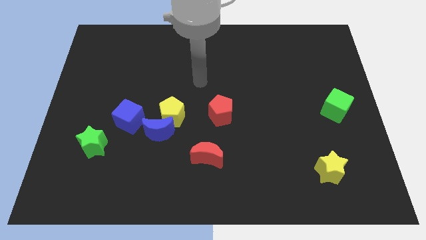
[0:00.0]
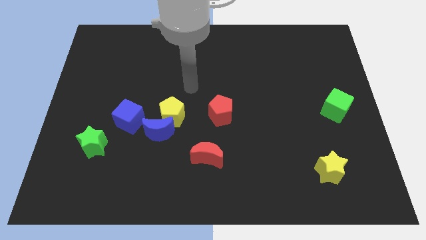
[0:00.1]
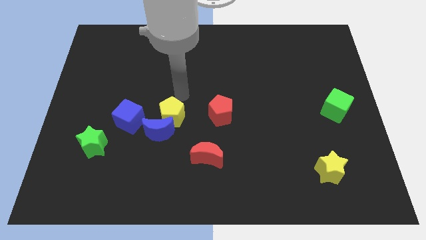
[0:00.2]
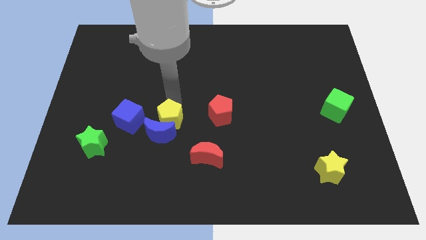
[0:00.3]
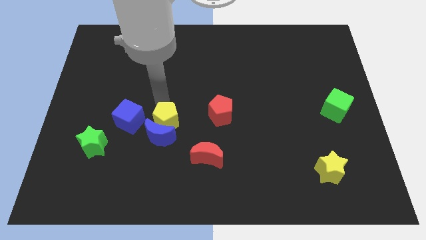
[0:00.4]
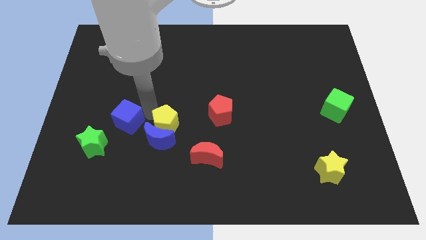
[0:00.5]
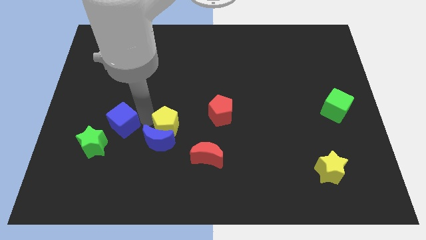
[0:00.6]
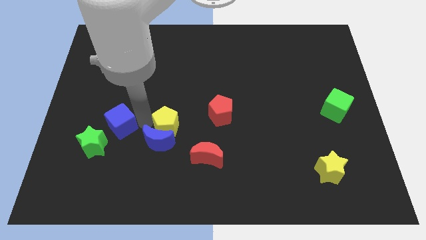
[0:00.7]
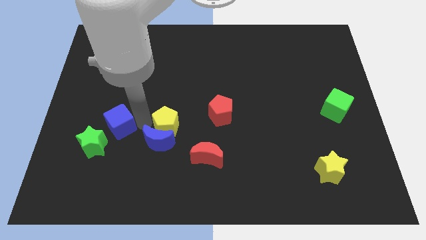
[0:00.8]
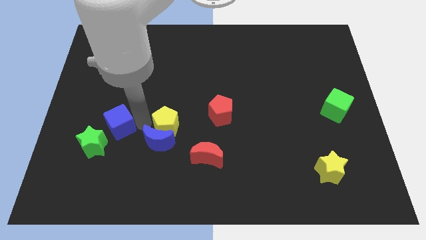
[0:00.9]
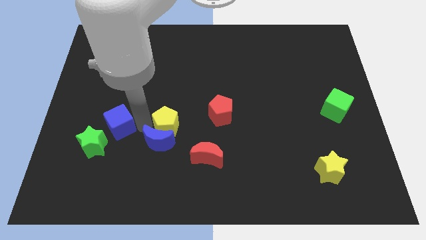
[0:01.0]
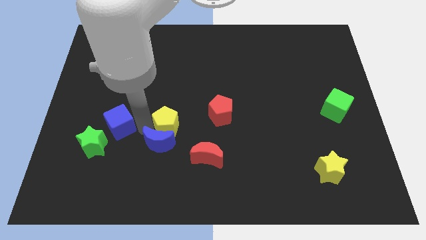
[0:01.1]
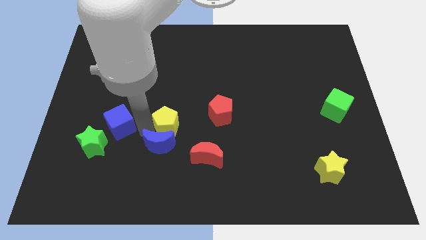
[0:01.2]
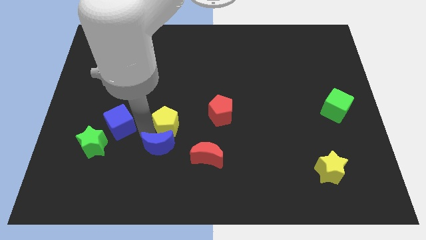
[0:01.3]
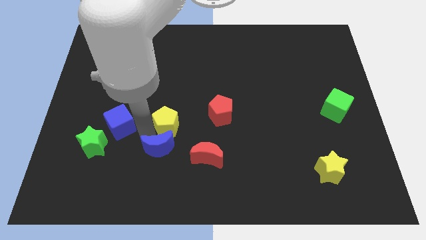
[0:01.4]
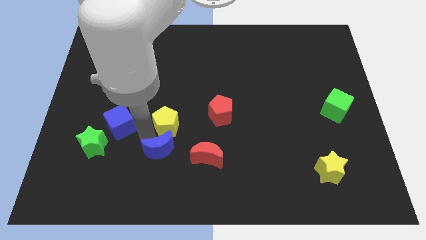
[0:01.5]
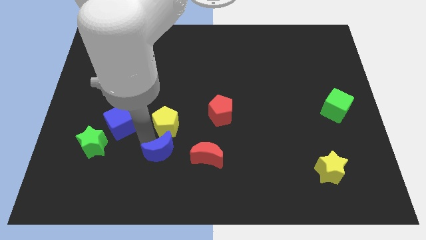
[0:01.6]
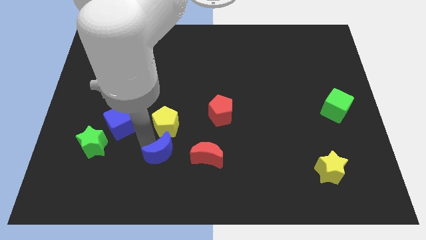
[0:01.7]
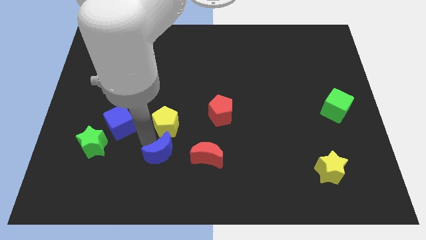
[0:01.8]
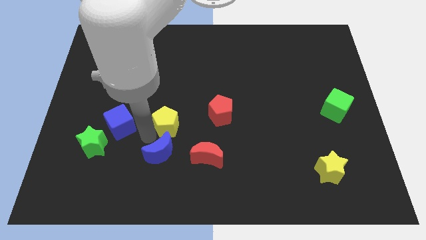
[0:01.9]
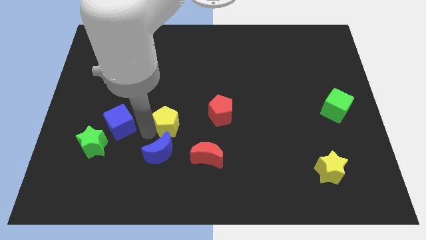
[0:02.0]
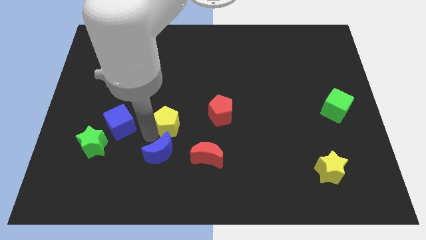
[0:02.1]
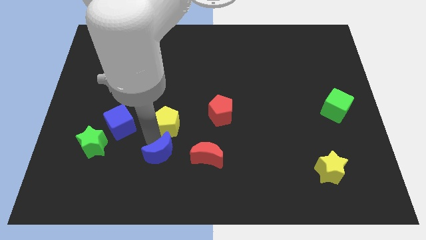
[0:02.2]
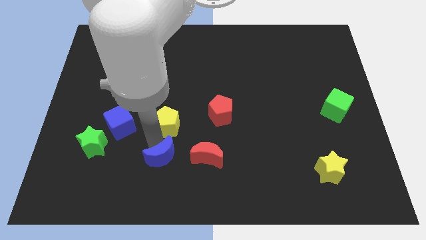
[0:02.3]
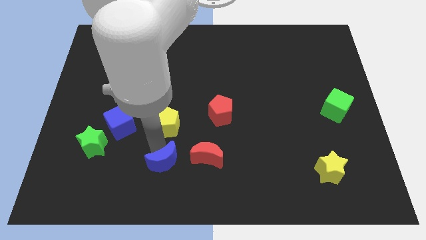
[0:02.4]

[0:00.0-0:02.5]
move the blue moon away from the yellow pentagon and blue cube

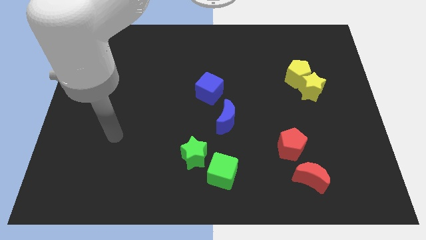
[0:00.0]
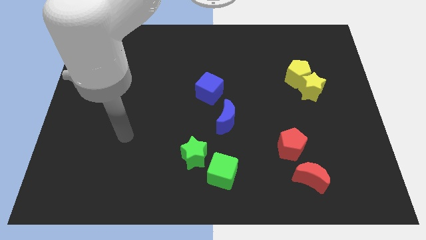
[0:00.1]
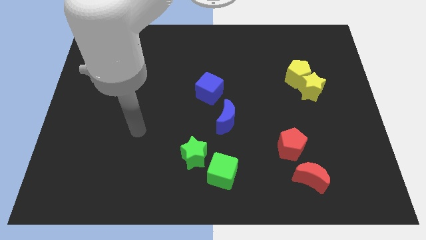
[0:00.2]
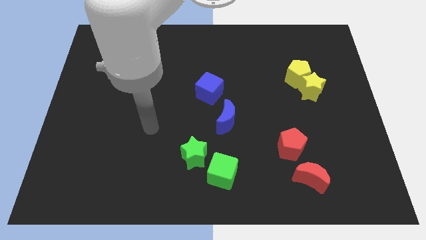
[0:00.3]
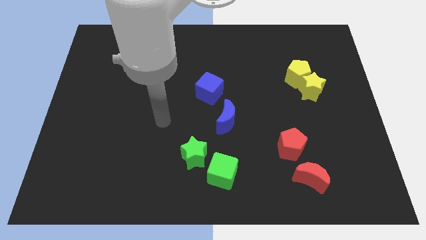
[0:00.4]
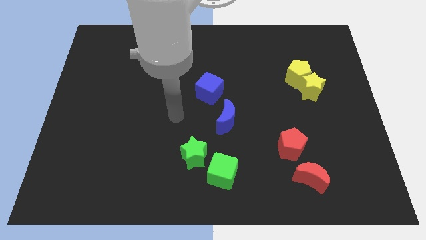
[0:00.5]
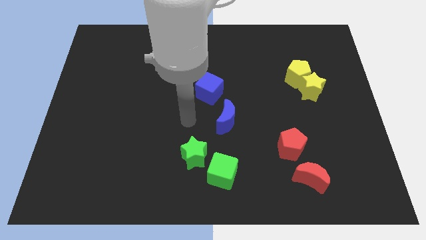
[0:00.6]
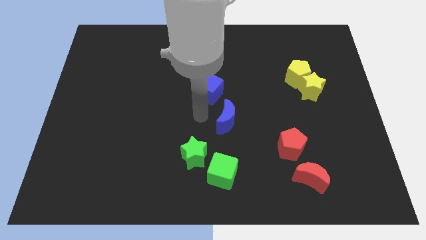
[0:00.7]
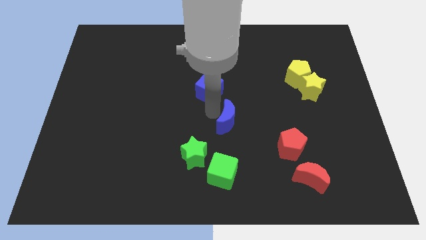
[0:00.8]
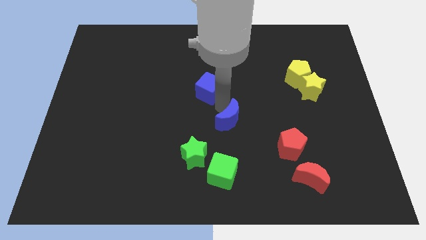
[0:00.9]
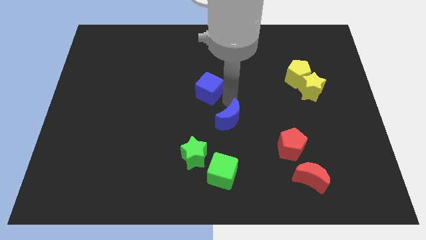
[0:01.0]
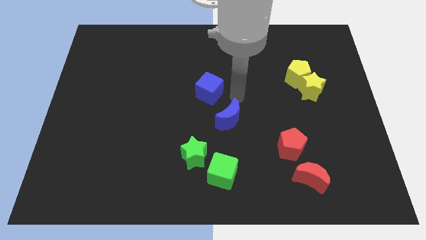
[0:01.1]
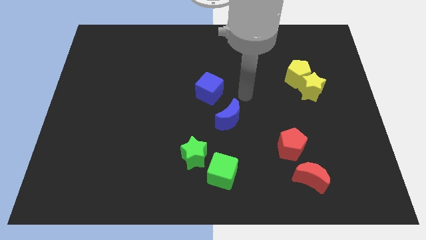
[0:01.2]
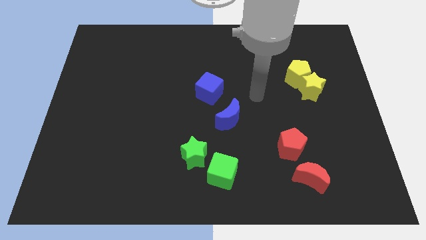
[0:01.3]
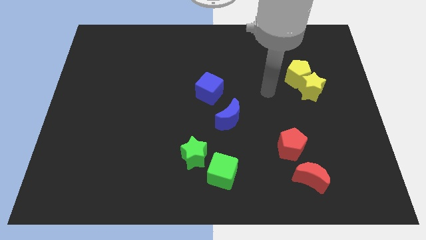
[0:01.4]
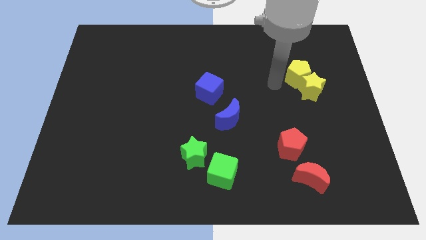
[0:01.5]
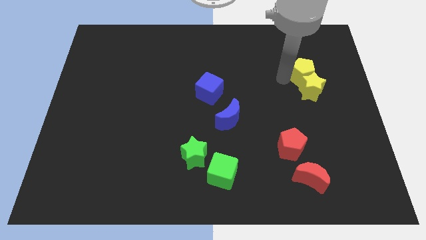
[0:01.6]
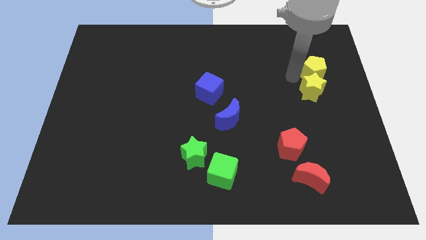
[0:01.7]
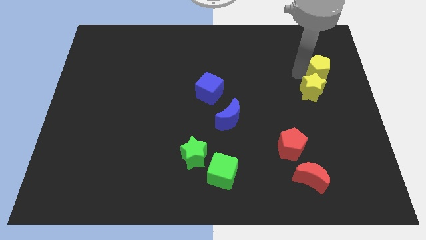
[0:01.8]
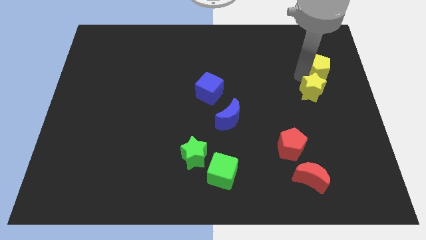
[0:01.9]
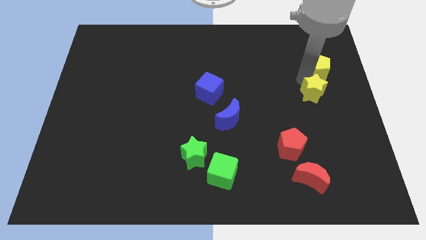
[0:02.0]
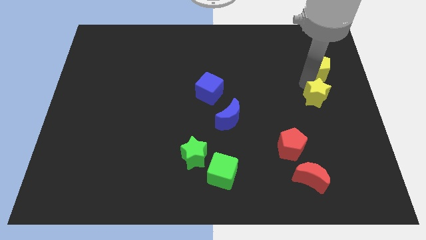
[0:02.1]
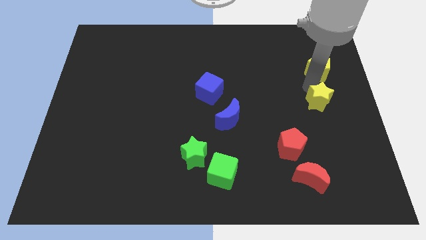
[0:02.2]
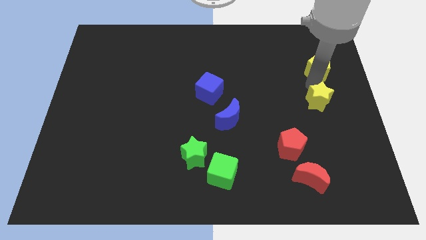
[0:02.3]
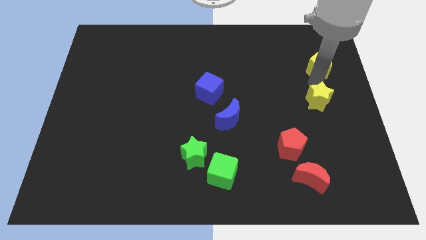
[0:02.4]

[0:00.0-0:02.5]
pull the yellow star apart from the yellow pentagon

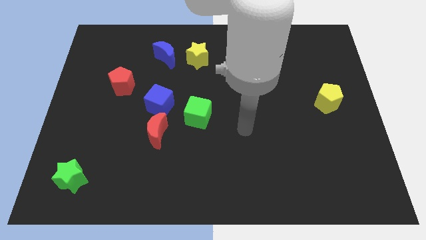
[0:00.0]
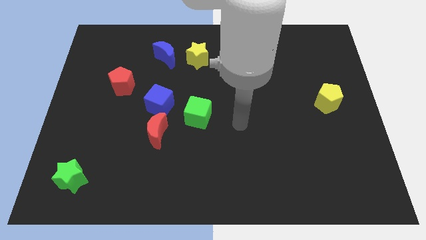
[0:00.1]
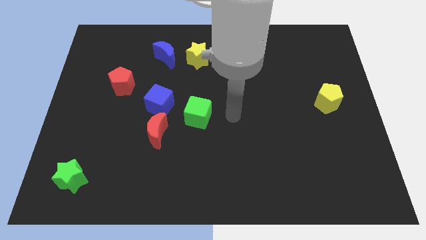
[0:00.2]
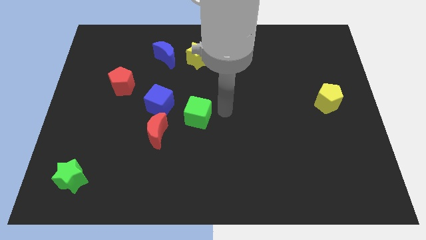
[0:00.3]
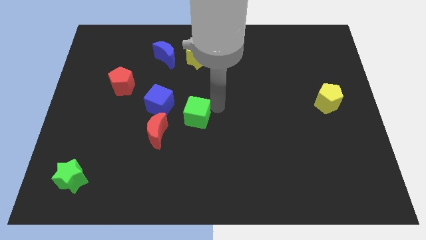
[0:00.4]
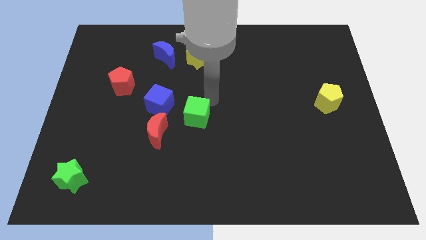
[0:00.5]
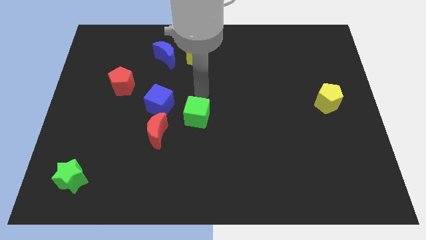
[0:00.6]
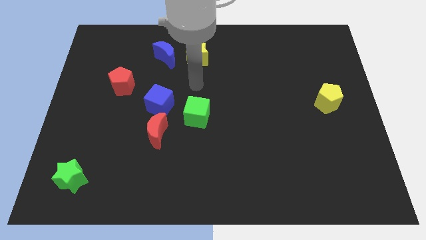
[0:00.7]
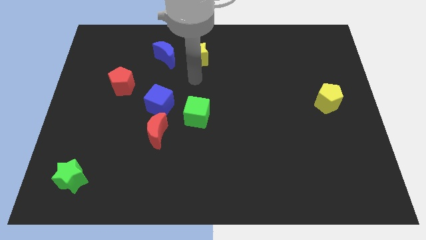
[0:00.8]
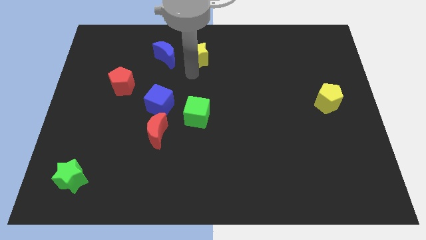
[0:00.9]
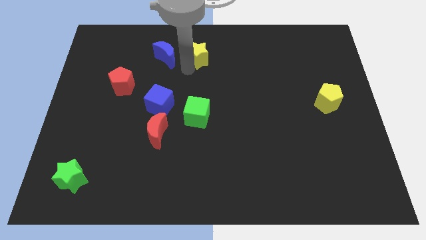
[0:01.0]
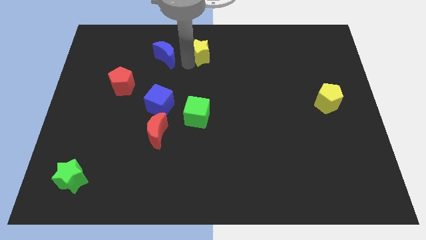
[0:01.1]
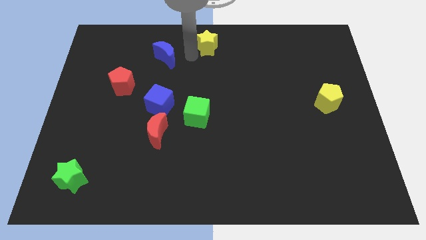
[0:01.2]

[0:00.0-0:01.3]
separate the blue moon from the yellow star

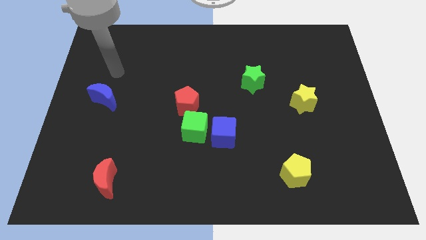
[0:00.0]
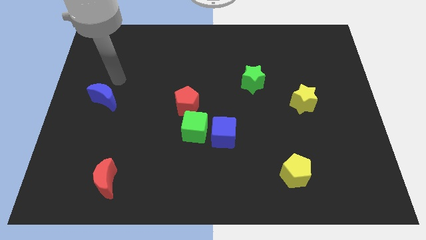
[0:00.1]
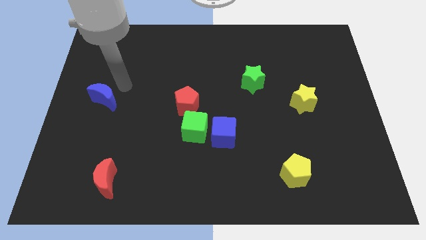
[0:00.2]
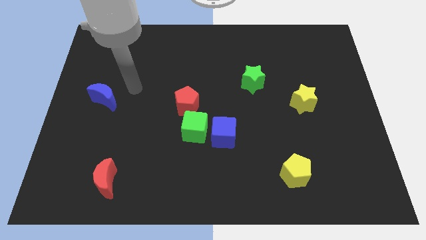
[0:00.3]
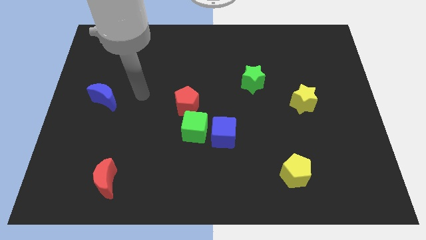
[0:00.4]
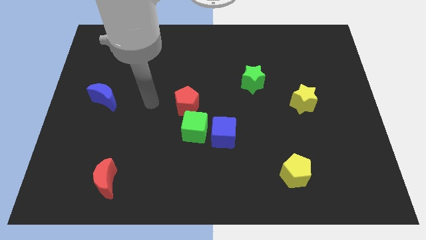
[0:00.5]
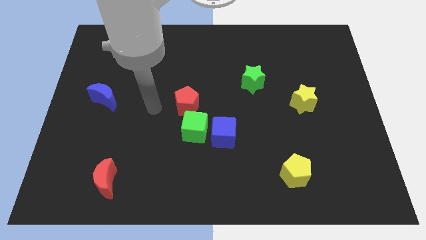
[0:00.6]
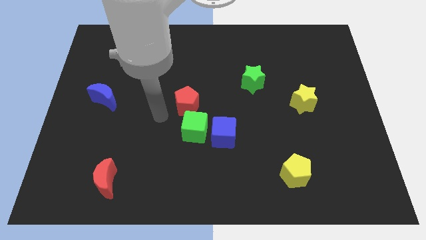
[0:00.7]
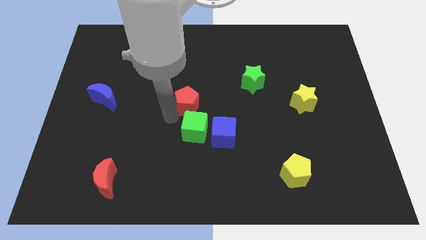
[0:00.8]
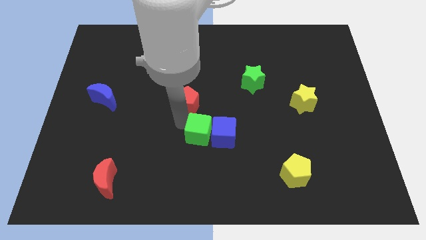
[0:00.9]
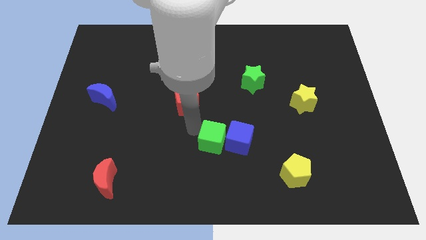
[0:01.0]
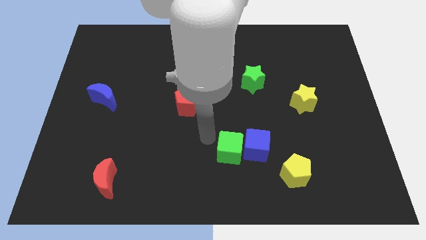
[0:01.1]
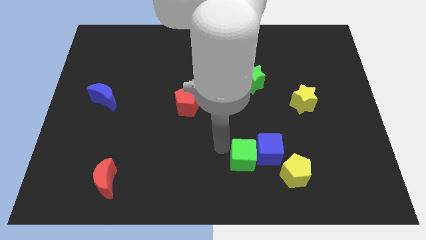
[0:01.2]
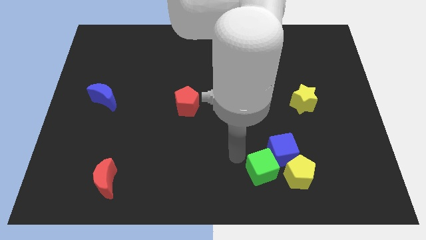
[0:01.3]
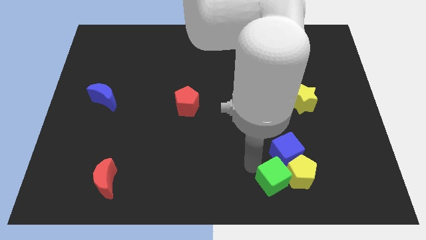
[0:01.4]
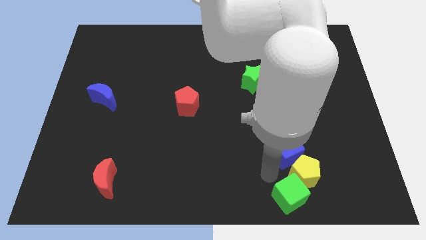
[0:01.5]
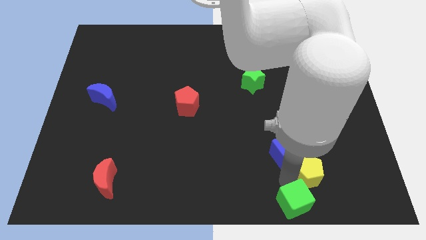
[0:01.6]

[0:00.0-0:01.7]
separate the blue cube from the green cube

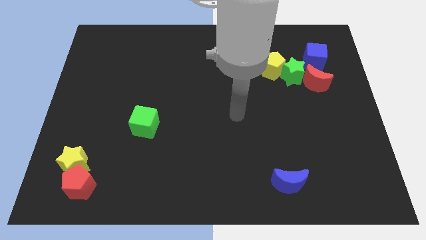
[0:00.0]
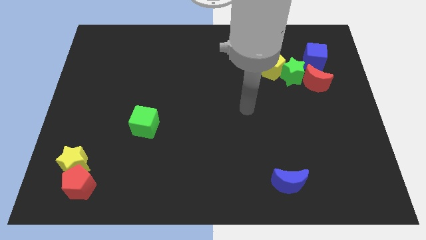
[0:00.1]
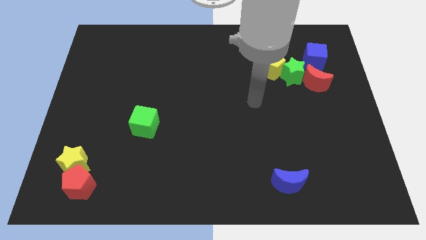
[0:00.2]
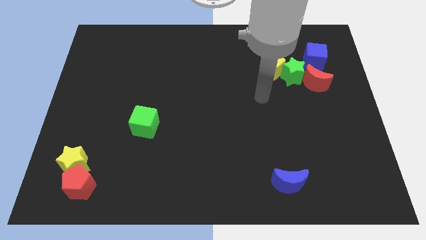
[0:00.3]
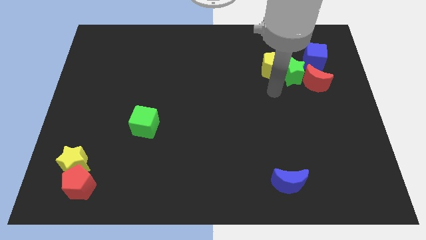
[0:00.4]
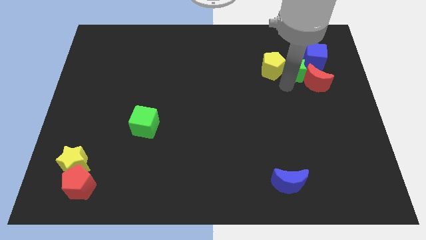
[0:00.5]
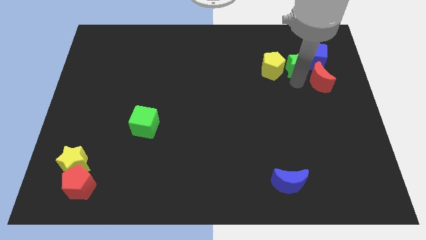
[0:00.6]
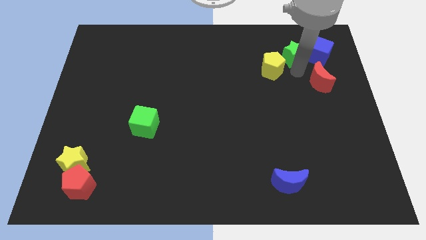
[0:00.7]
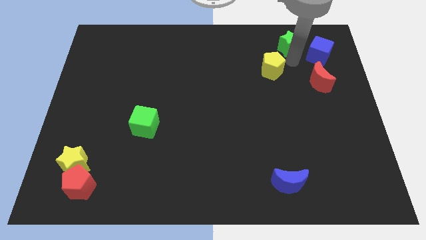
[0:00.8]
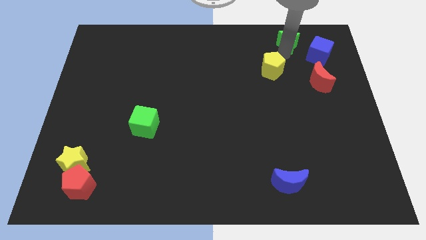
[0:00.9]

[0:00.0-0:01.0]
pull the yellow pentagon apart from the green star

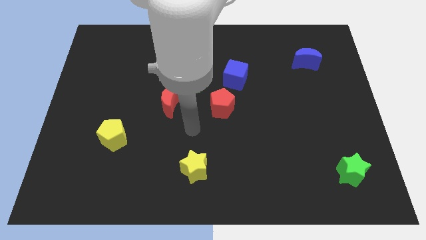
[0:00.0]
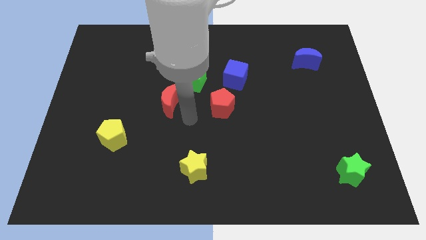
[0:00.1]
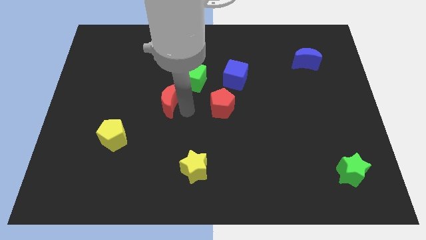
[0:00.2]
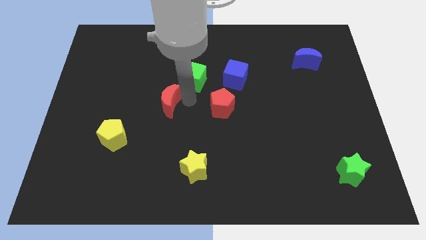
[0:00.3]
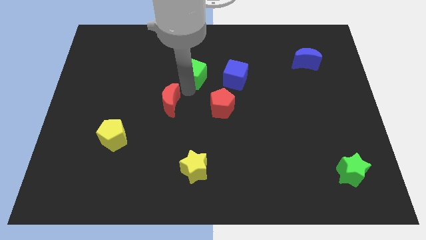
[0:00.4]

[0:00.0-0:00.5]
move the red moon away from the green cube
